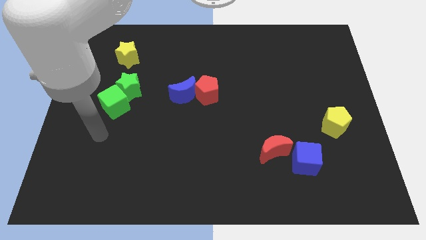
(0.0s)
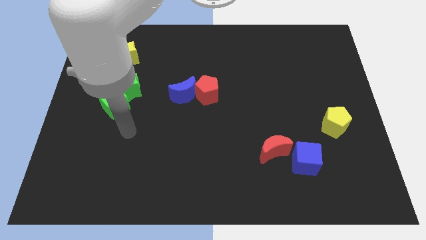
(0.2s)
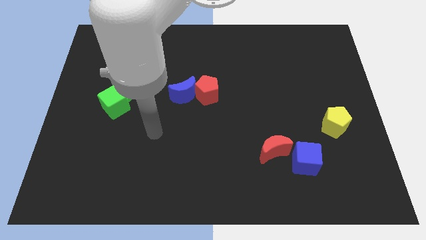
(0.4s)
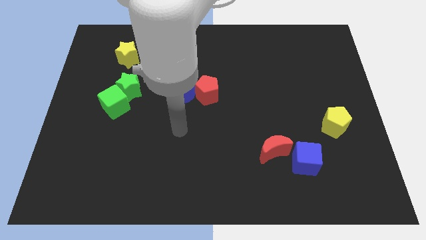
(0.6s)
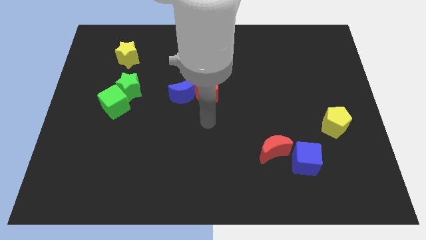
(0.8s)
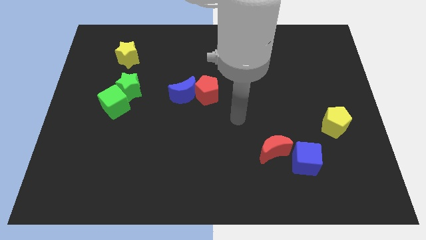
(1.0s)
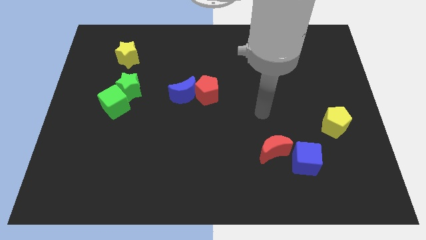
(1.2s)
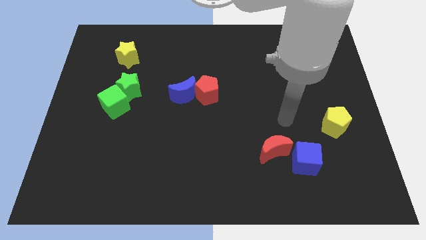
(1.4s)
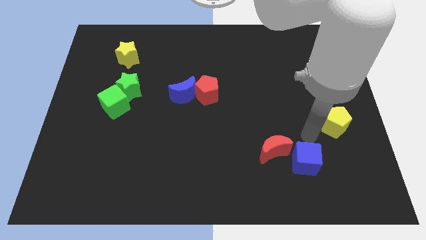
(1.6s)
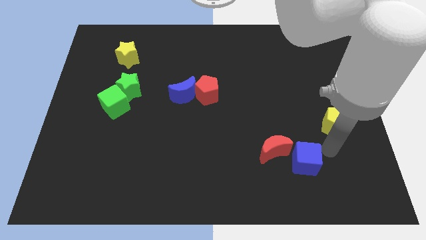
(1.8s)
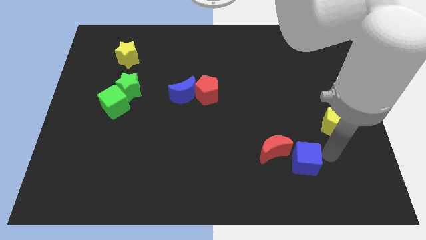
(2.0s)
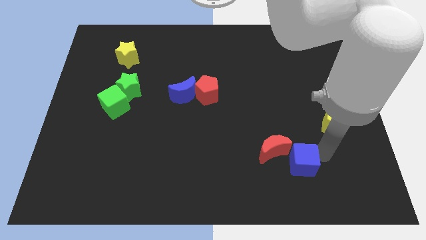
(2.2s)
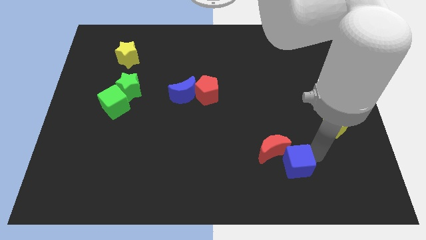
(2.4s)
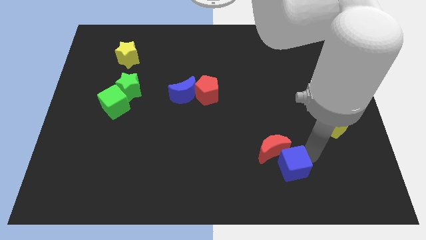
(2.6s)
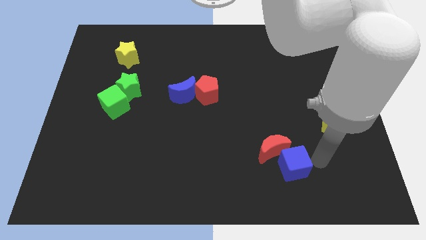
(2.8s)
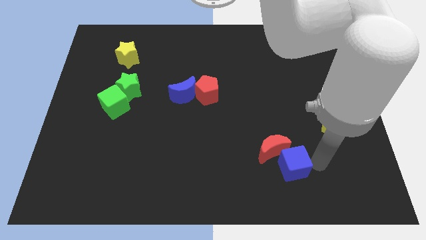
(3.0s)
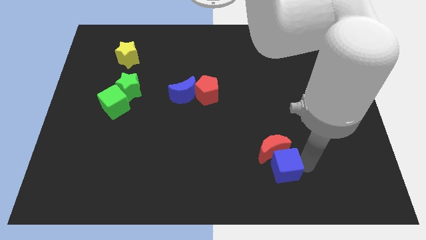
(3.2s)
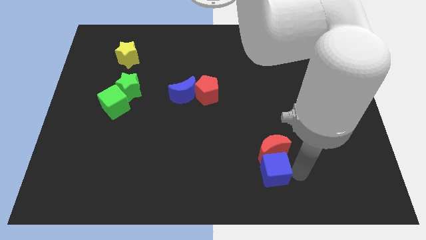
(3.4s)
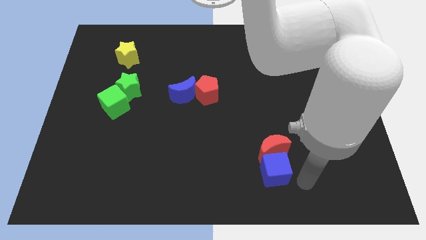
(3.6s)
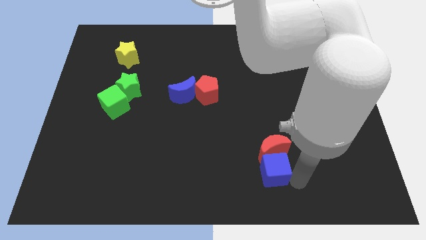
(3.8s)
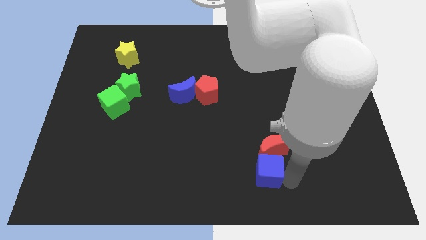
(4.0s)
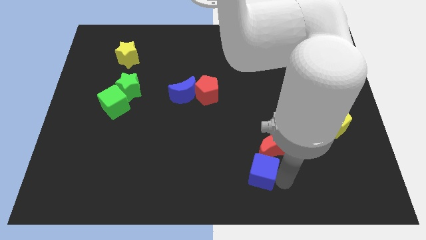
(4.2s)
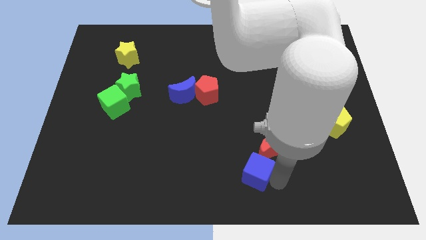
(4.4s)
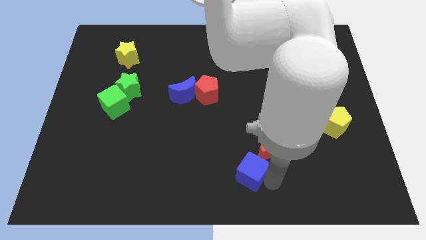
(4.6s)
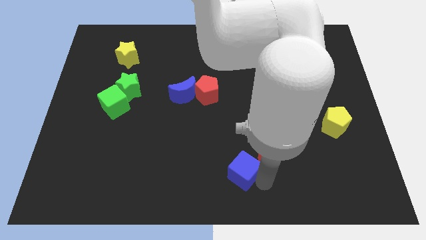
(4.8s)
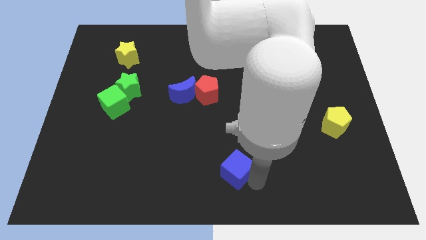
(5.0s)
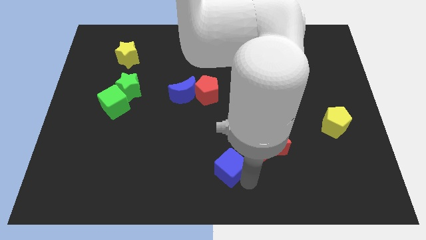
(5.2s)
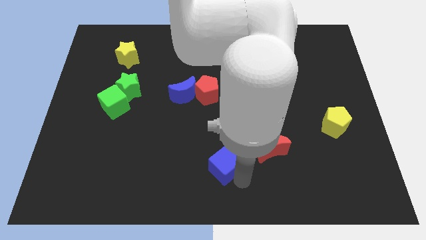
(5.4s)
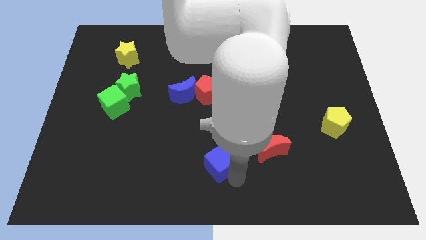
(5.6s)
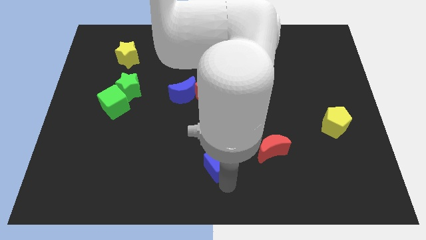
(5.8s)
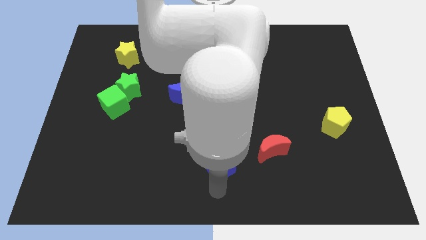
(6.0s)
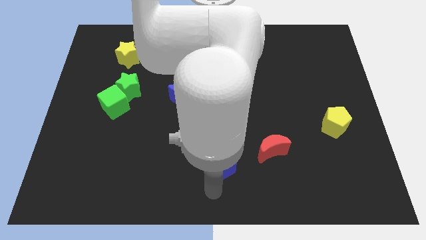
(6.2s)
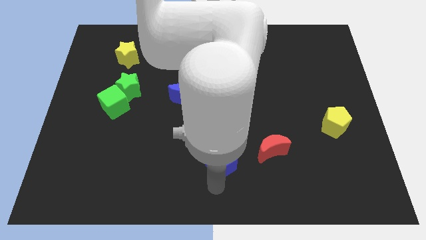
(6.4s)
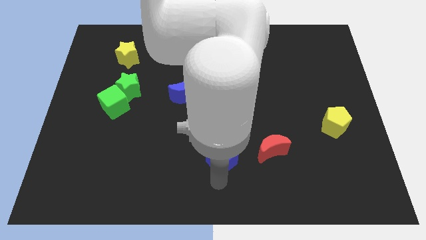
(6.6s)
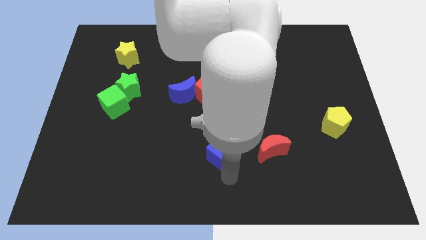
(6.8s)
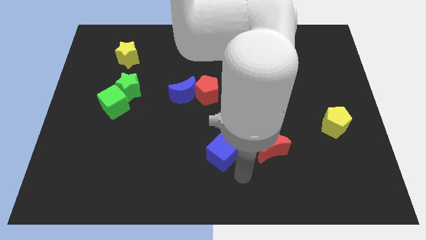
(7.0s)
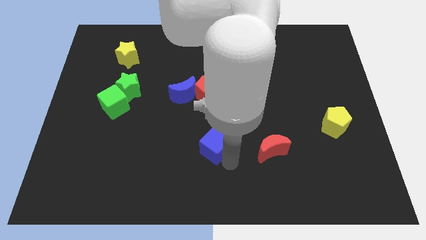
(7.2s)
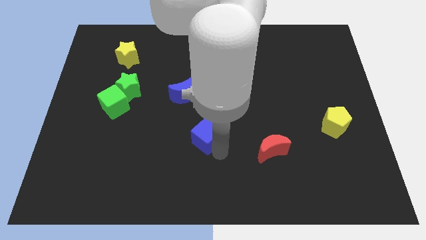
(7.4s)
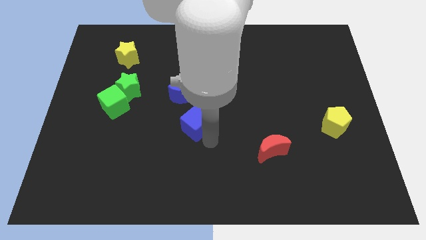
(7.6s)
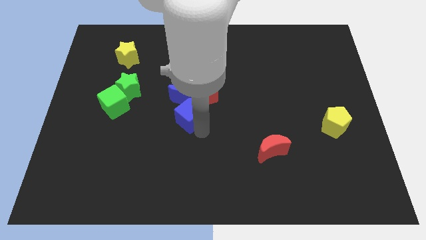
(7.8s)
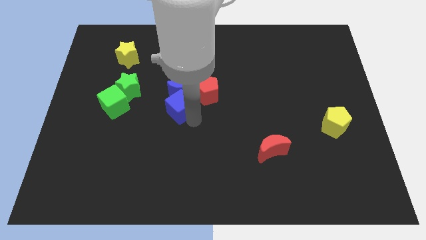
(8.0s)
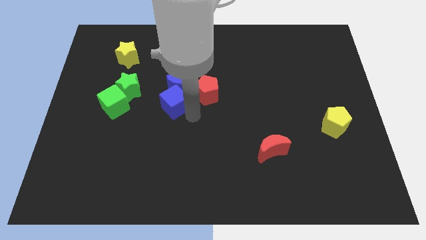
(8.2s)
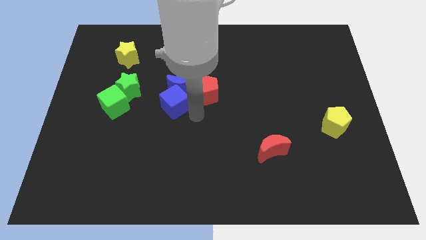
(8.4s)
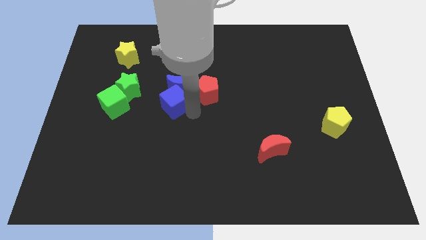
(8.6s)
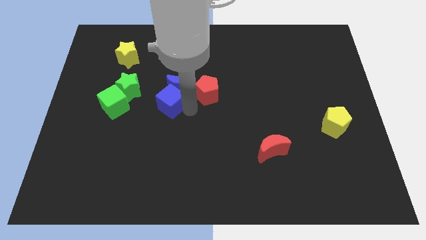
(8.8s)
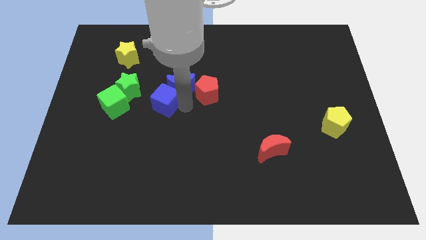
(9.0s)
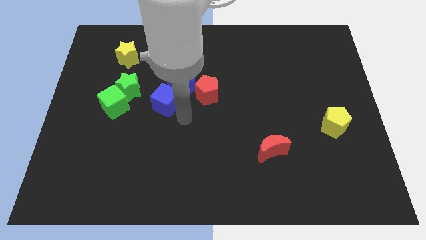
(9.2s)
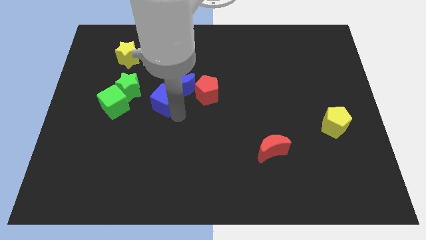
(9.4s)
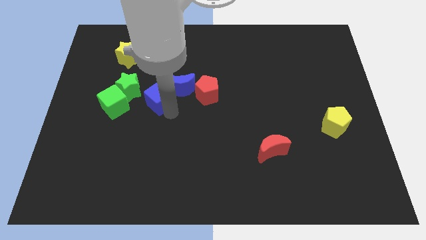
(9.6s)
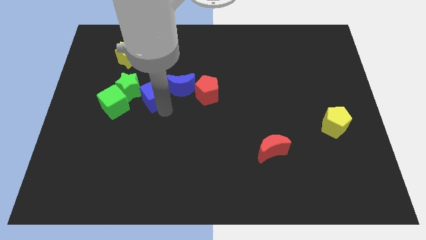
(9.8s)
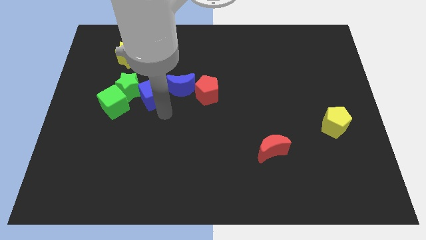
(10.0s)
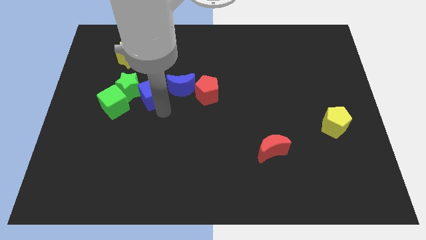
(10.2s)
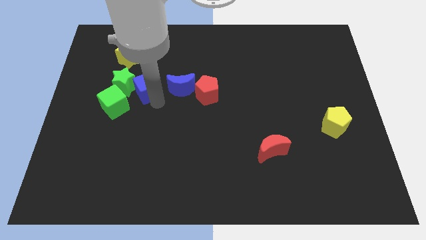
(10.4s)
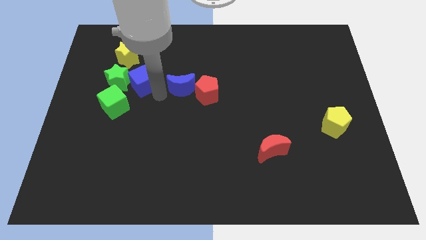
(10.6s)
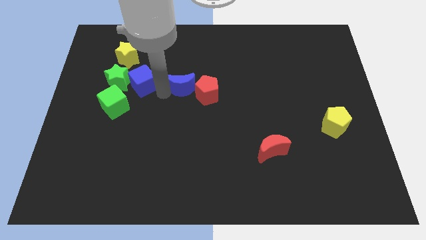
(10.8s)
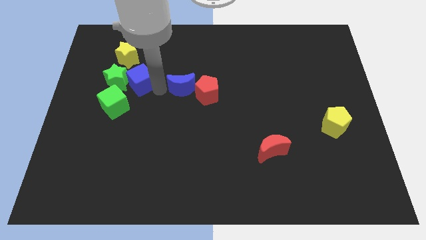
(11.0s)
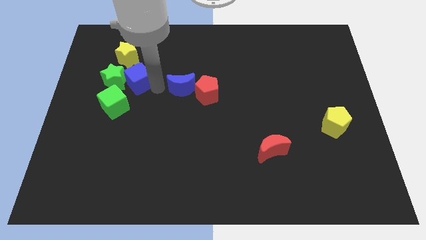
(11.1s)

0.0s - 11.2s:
slide the blue cube above the green cube

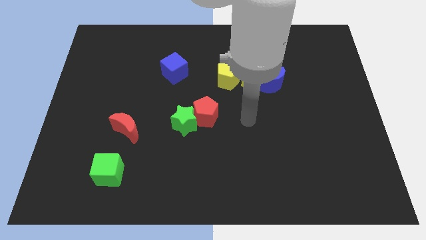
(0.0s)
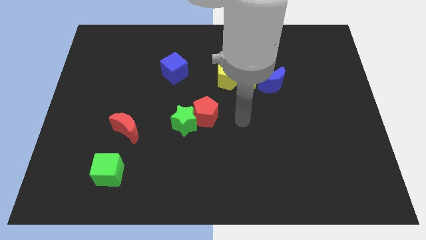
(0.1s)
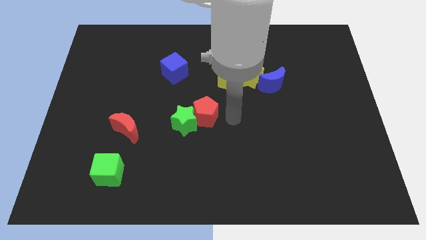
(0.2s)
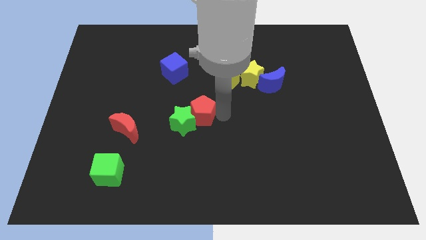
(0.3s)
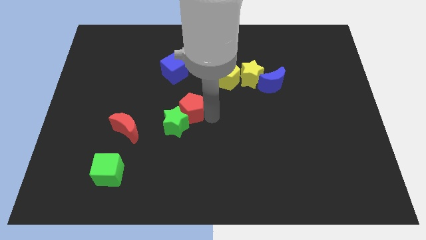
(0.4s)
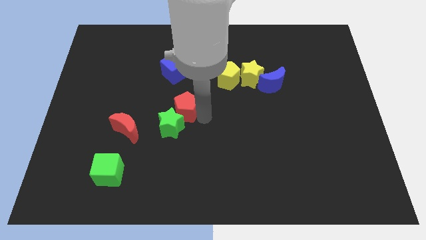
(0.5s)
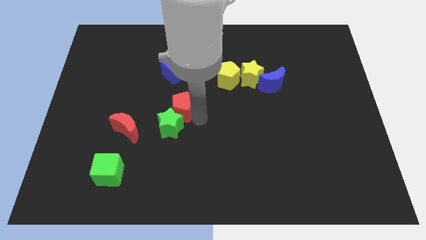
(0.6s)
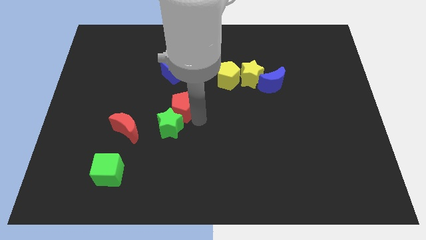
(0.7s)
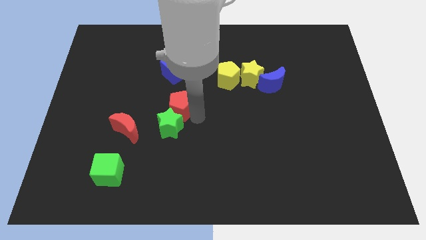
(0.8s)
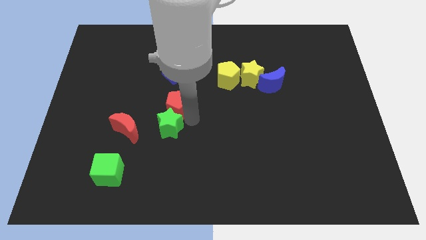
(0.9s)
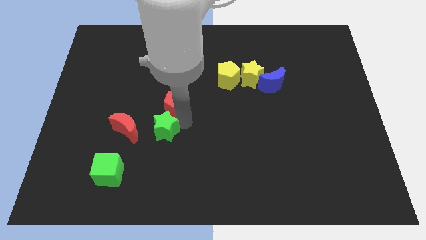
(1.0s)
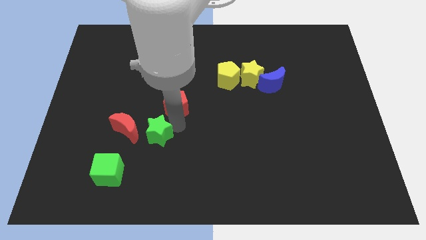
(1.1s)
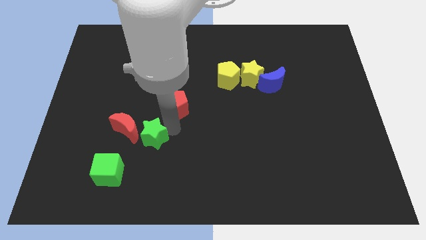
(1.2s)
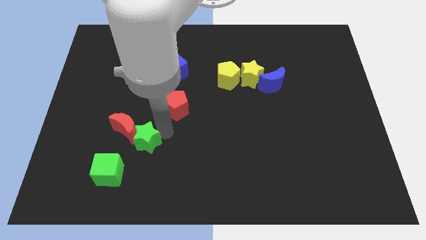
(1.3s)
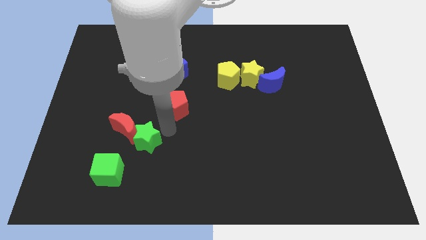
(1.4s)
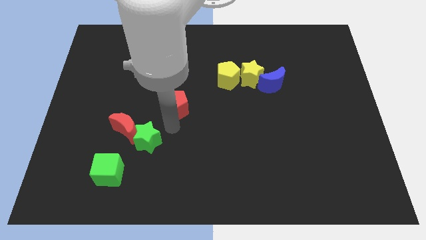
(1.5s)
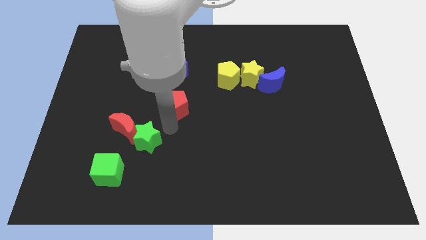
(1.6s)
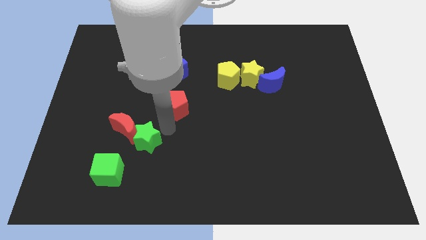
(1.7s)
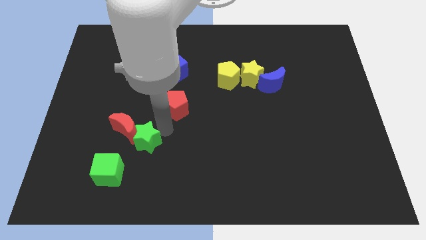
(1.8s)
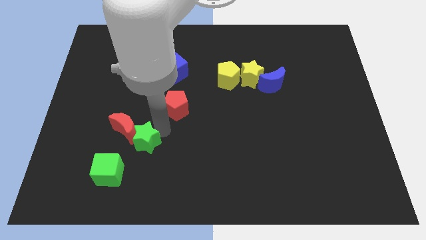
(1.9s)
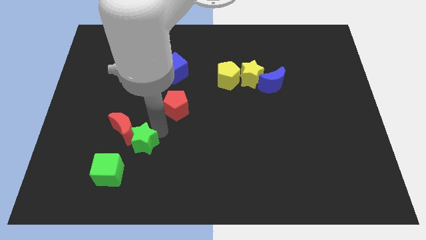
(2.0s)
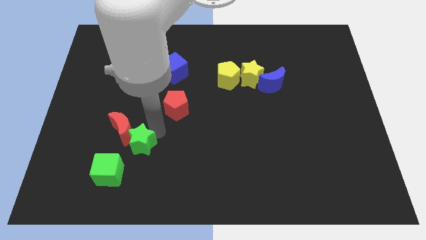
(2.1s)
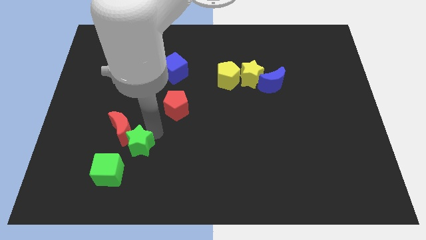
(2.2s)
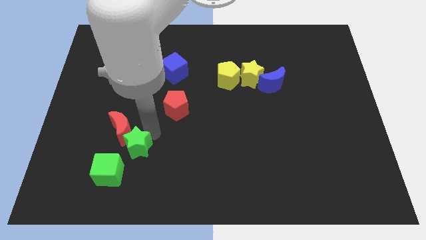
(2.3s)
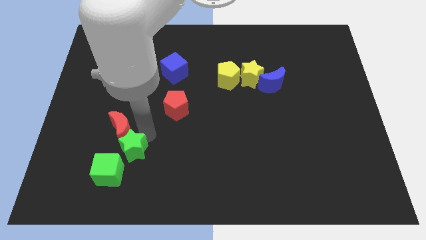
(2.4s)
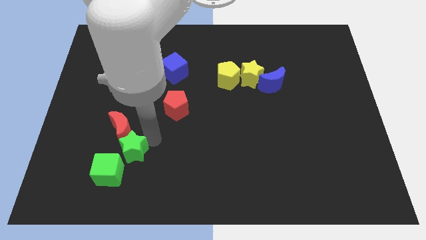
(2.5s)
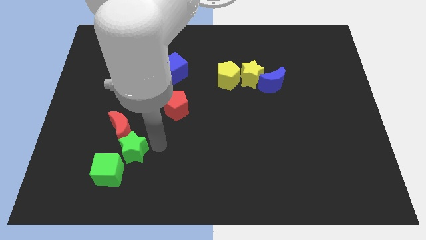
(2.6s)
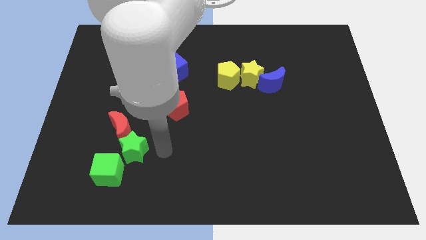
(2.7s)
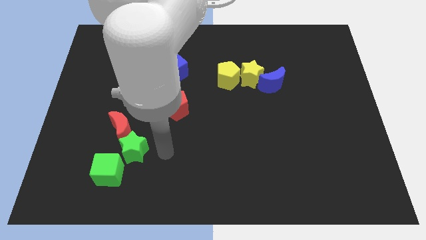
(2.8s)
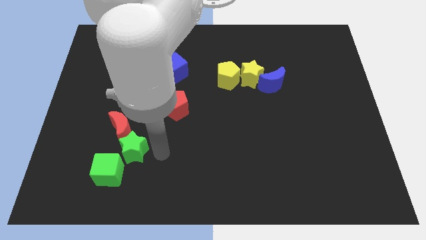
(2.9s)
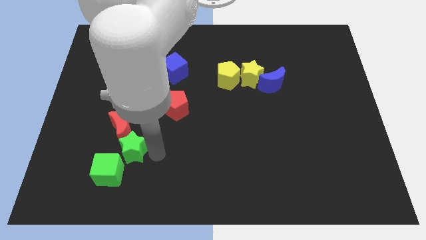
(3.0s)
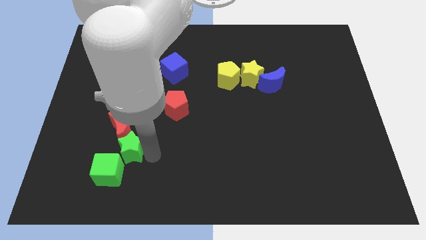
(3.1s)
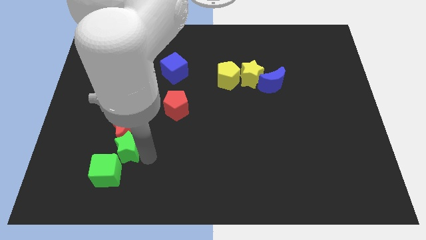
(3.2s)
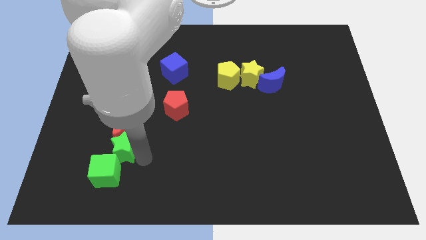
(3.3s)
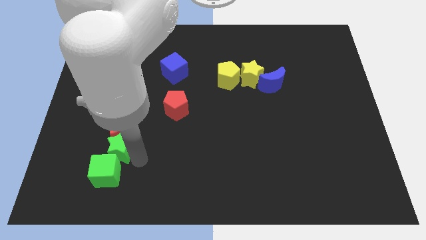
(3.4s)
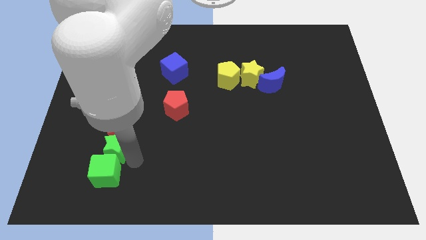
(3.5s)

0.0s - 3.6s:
move the green star to the top left side of the green cube
